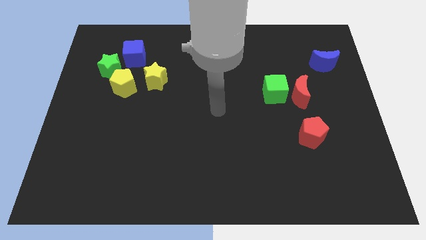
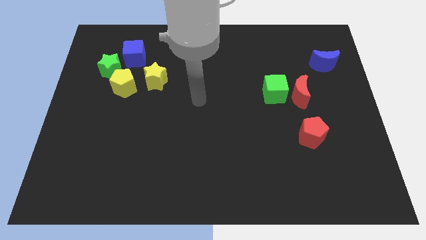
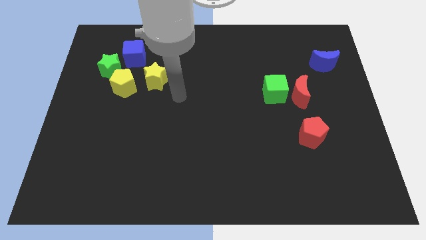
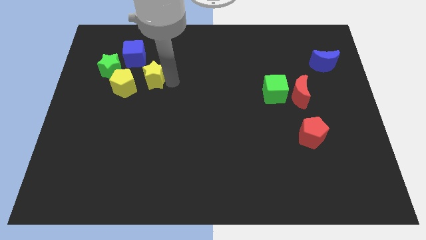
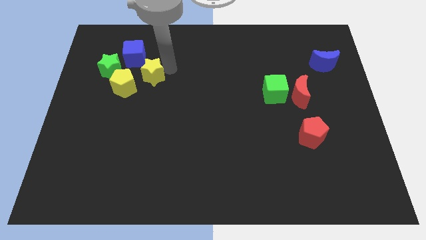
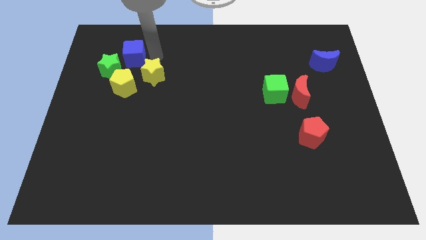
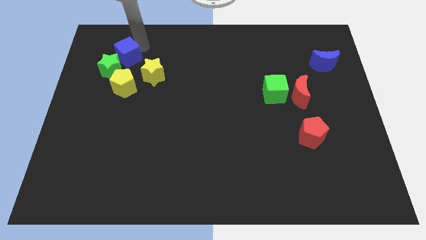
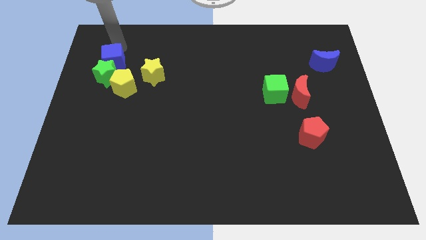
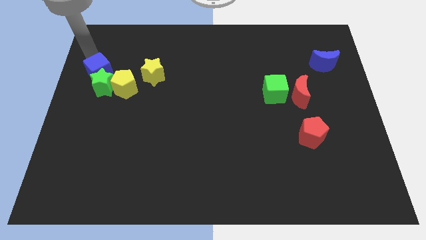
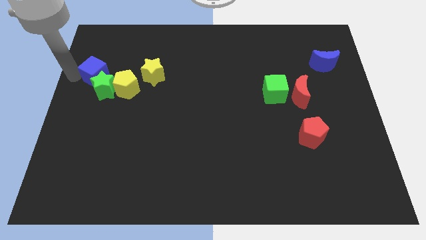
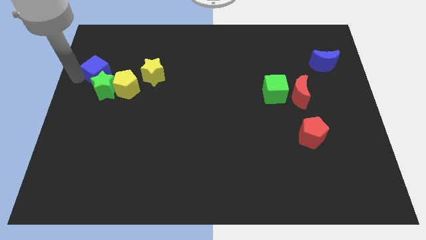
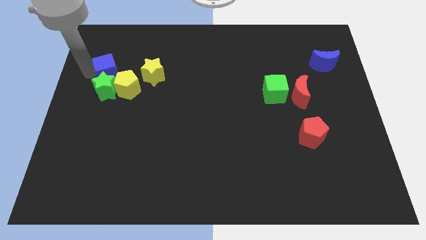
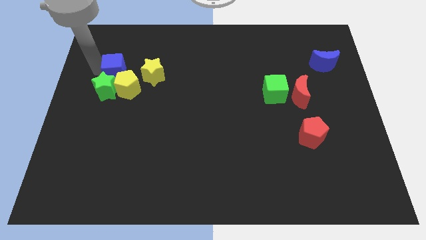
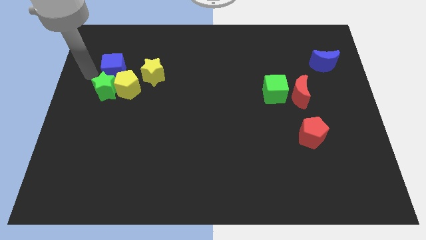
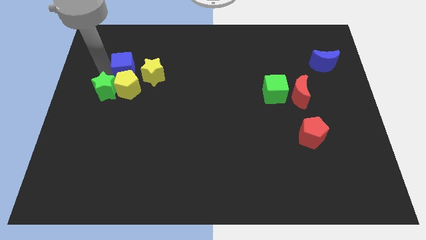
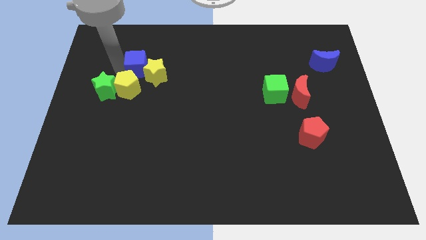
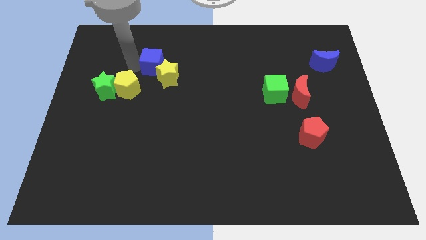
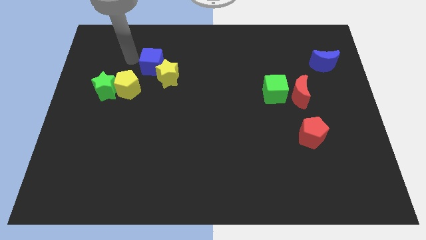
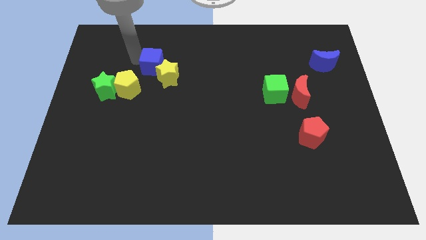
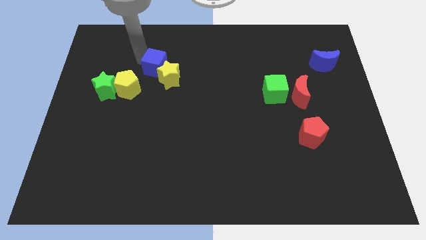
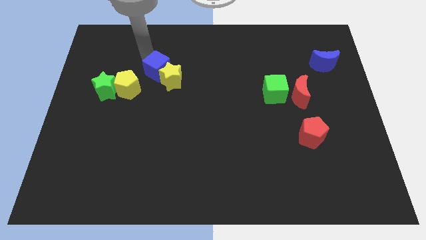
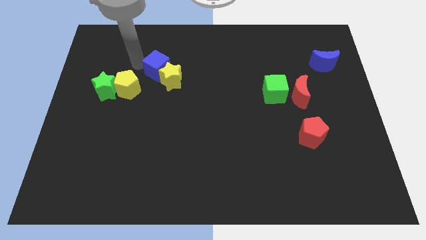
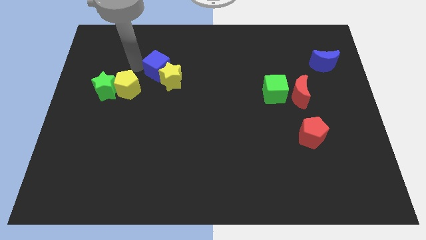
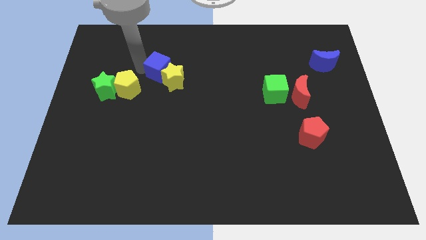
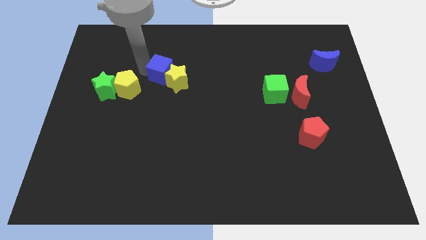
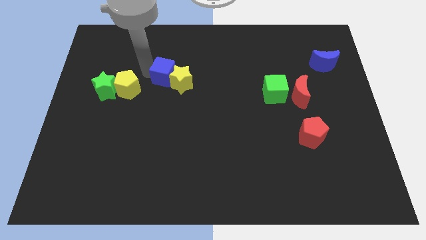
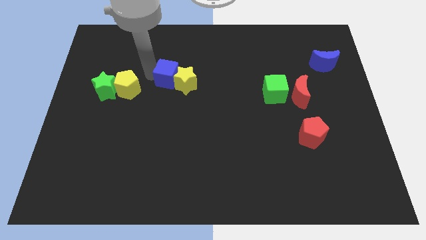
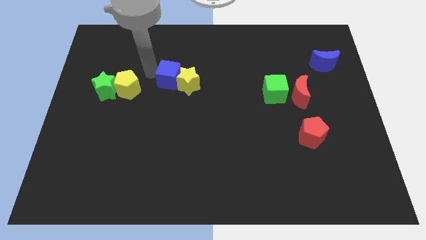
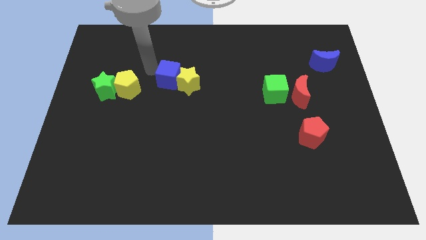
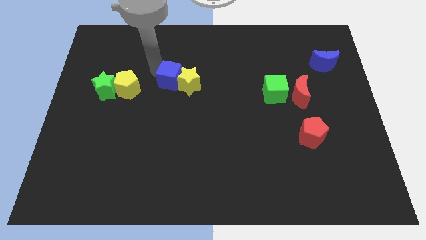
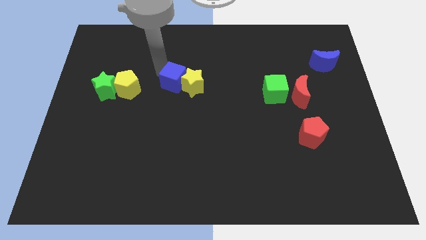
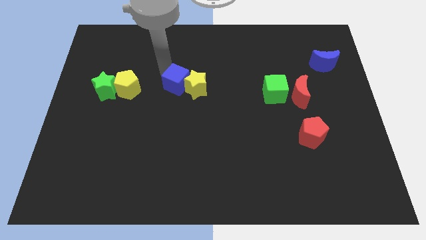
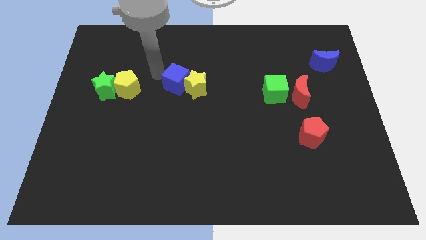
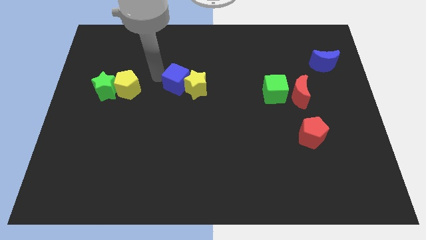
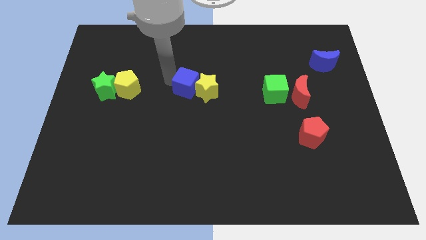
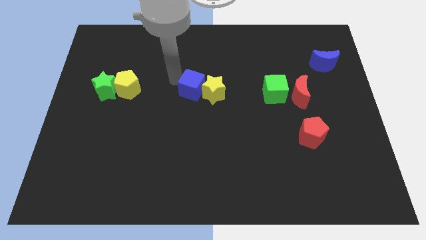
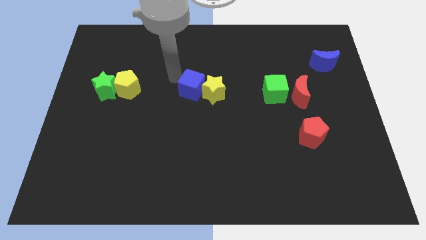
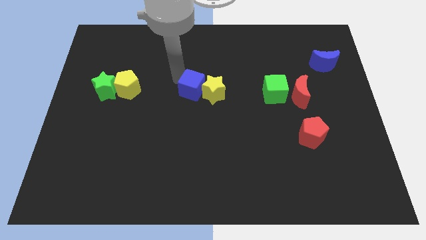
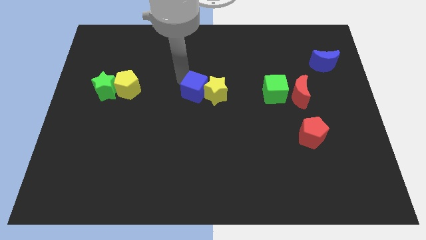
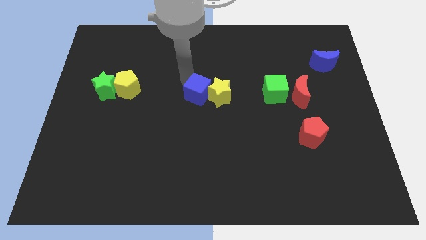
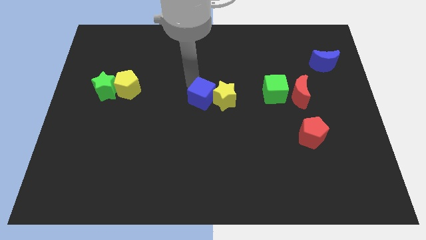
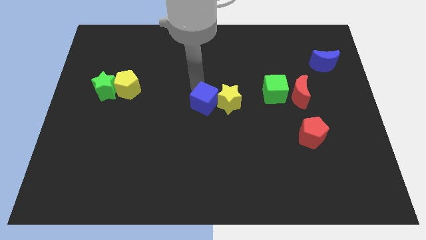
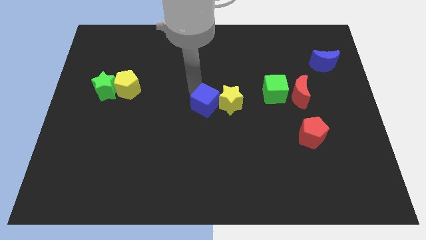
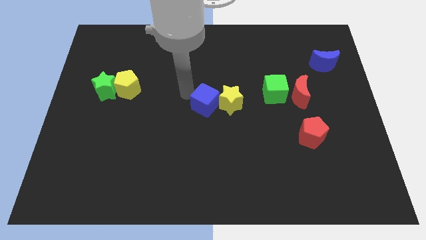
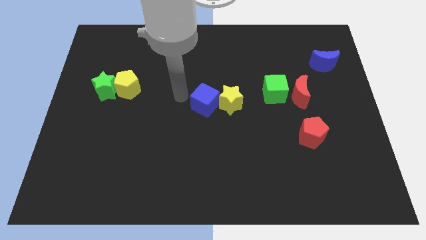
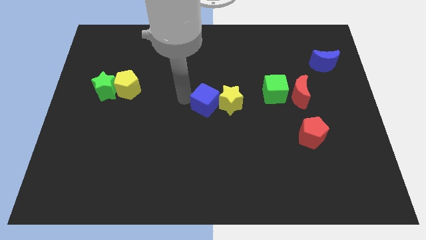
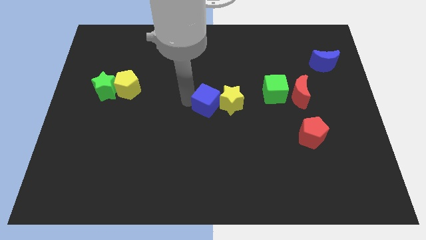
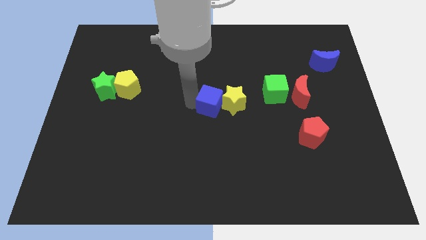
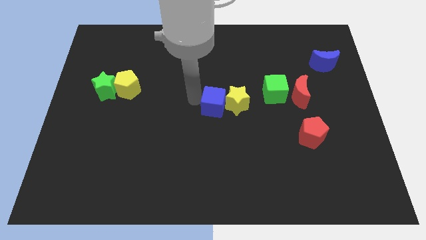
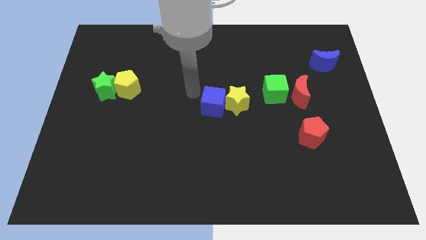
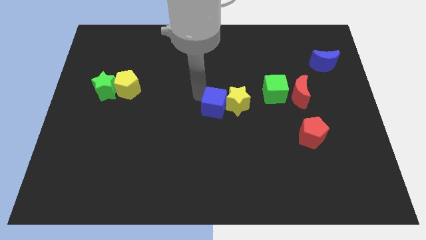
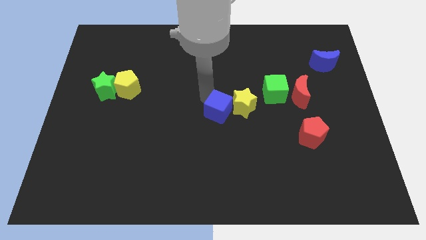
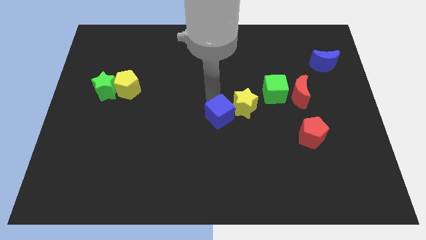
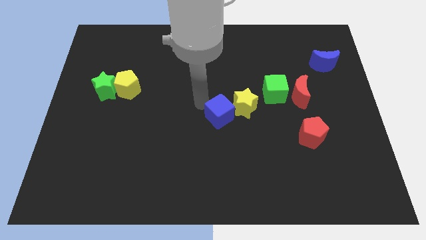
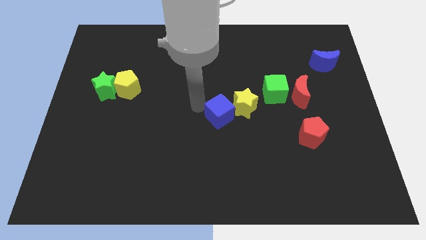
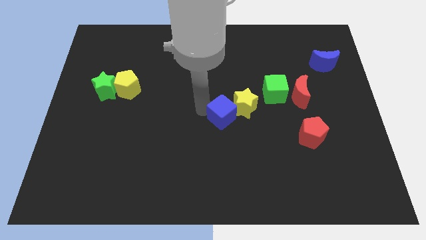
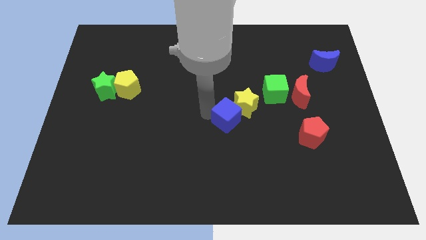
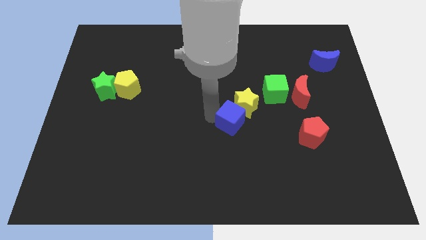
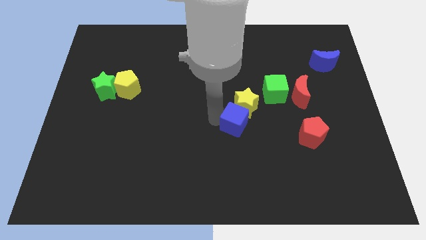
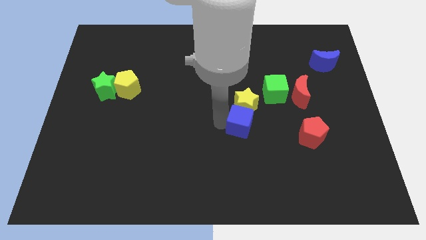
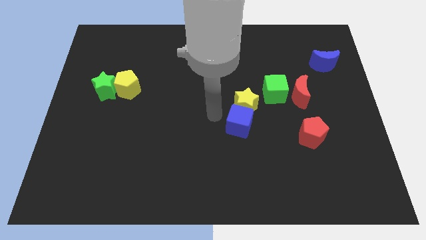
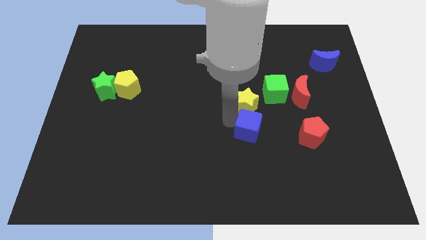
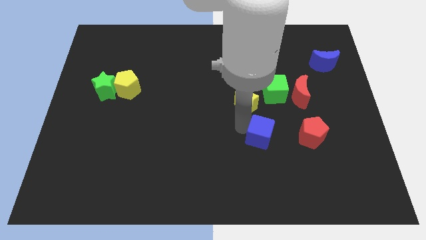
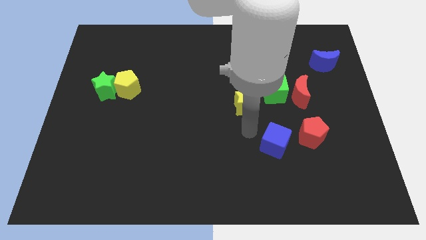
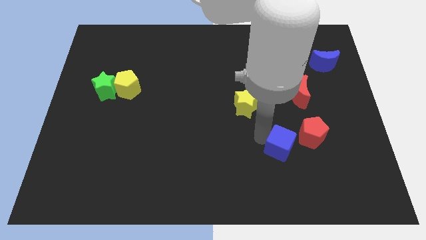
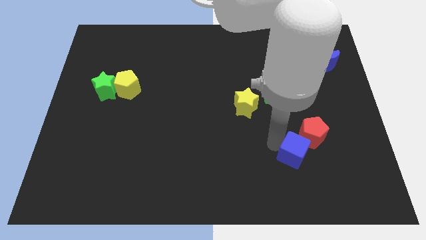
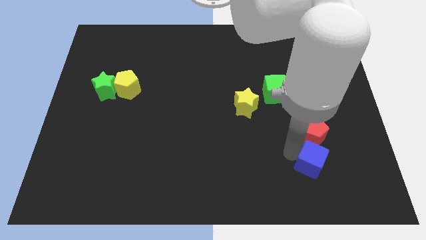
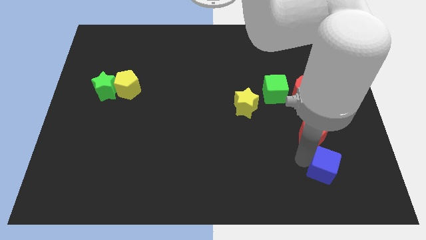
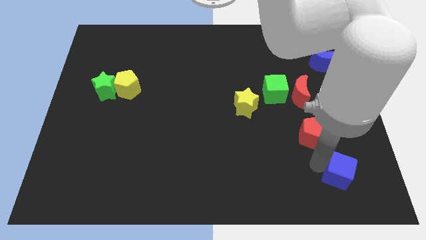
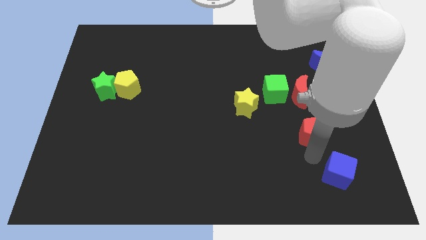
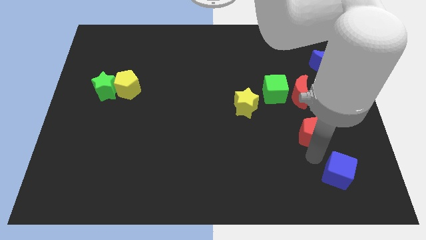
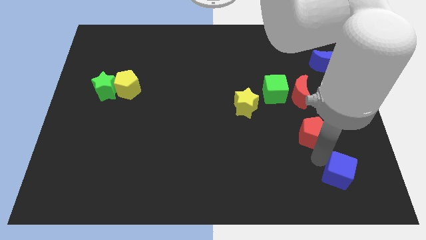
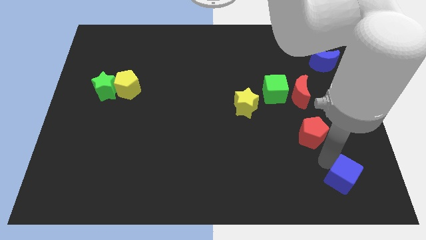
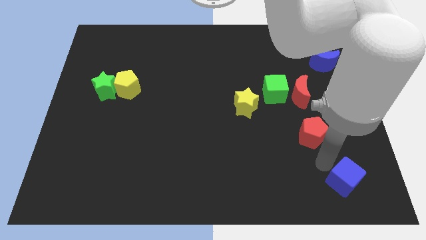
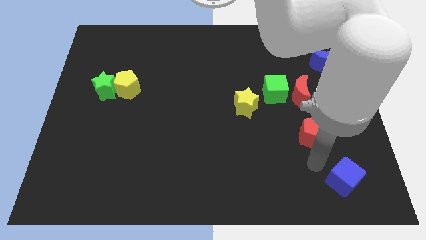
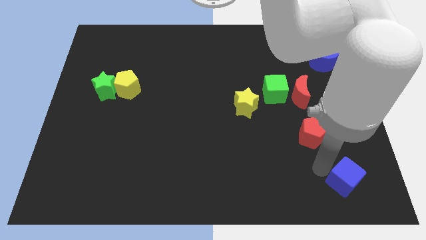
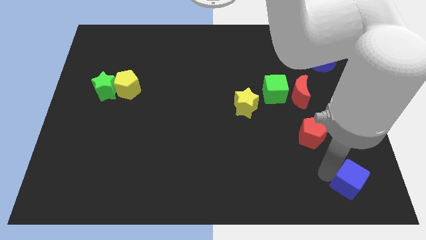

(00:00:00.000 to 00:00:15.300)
slide the blue cube to the bottom right
